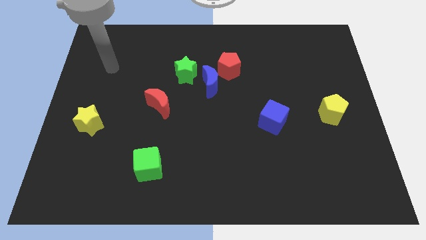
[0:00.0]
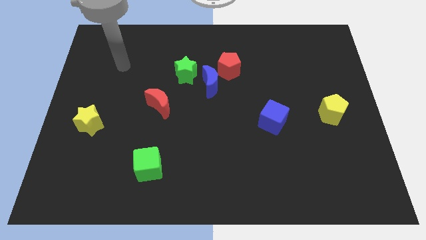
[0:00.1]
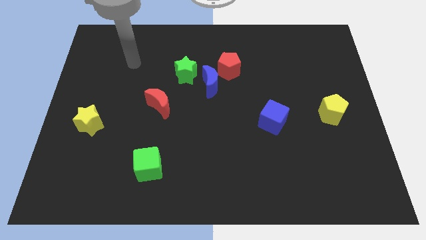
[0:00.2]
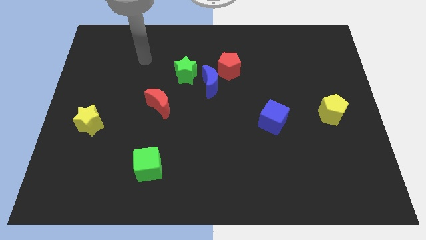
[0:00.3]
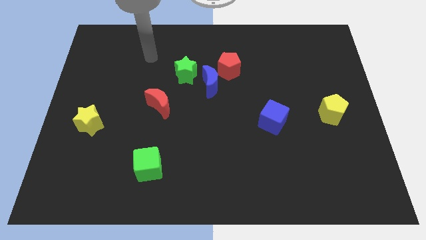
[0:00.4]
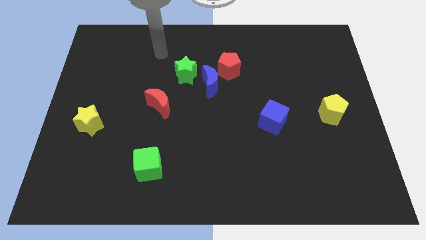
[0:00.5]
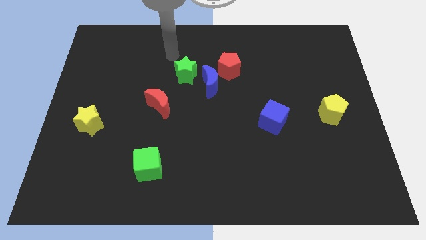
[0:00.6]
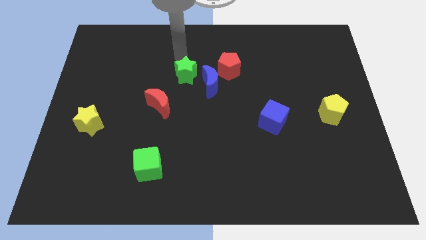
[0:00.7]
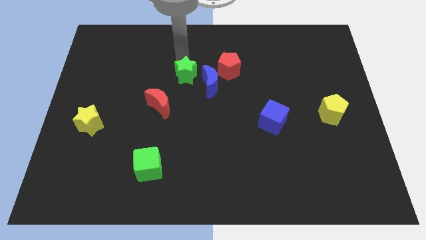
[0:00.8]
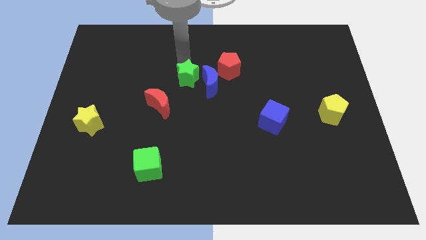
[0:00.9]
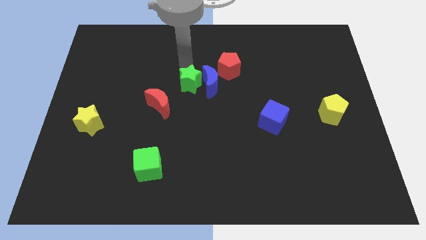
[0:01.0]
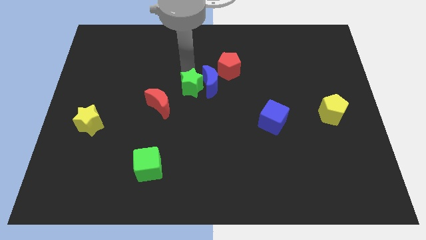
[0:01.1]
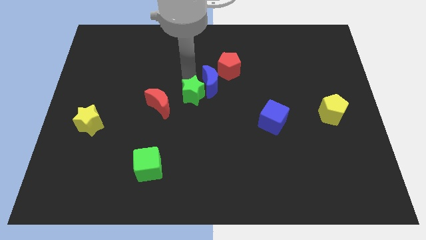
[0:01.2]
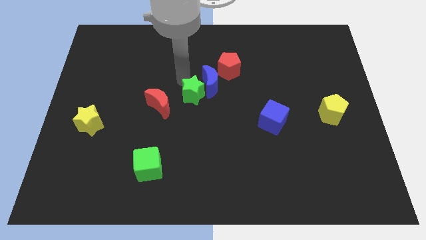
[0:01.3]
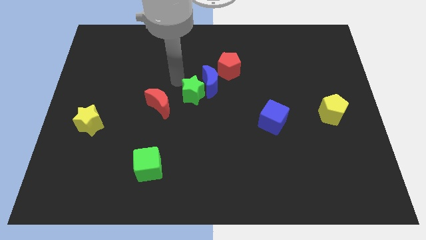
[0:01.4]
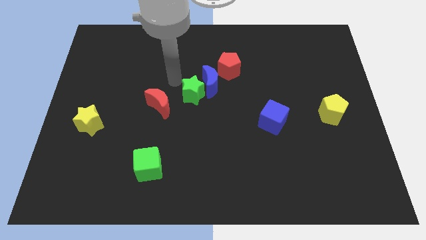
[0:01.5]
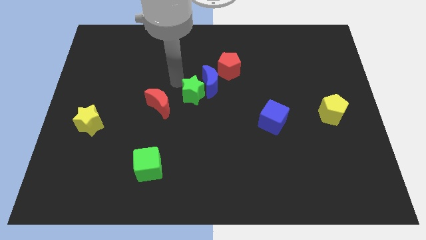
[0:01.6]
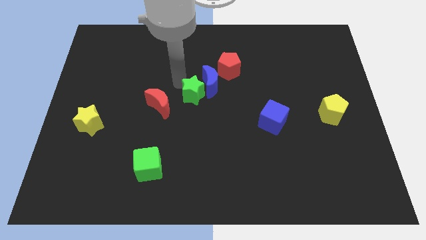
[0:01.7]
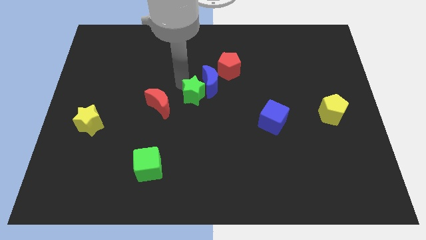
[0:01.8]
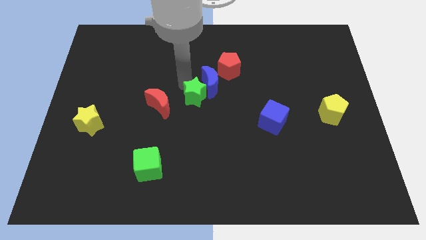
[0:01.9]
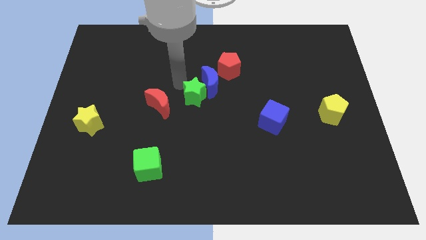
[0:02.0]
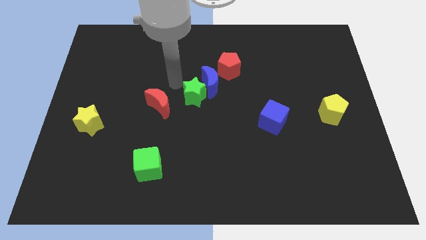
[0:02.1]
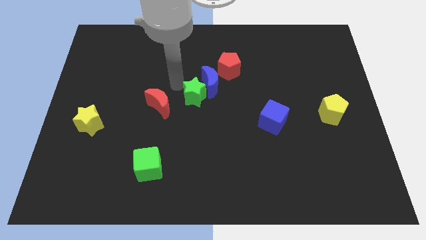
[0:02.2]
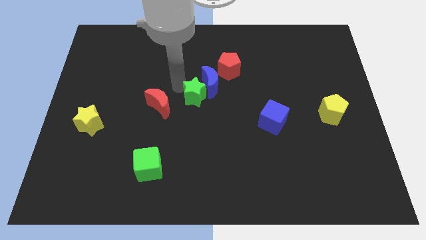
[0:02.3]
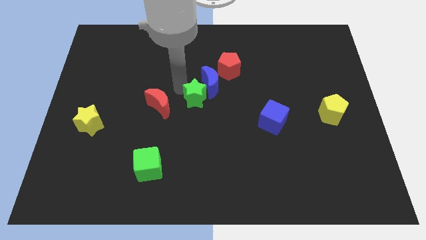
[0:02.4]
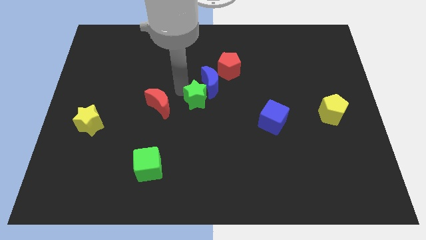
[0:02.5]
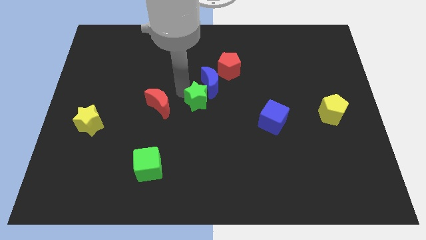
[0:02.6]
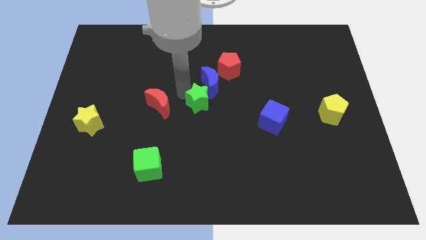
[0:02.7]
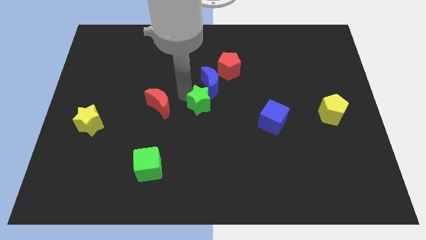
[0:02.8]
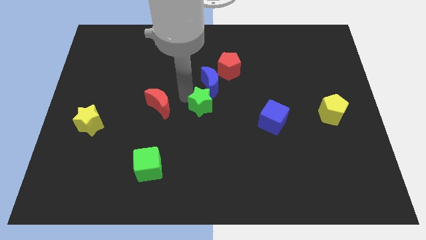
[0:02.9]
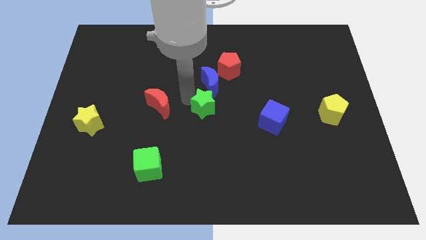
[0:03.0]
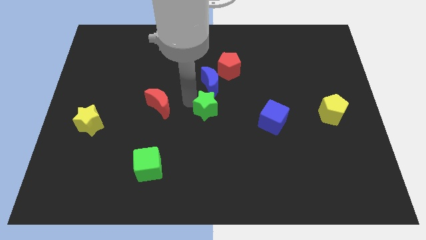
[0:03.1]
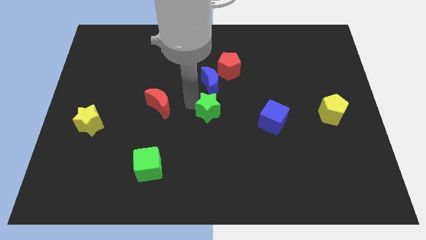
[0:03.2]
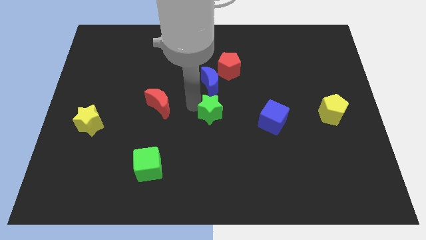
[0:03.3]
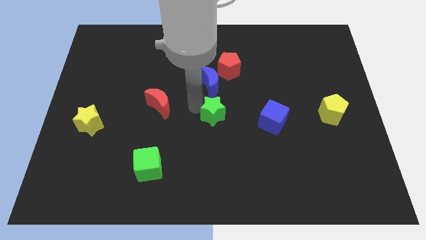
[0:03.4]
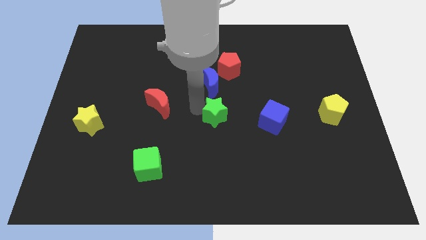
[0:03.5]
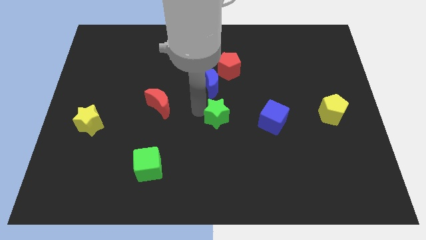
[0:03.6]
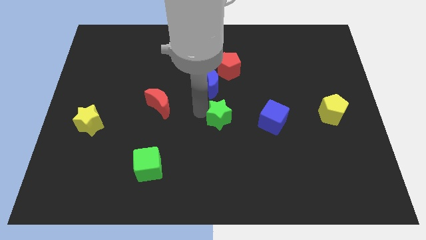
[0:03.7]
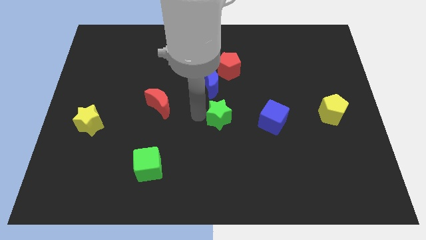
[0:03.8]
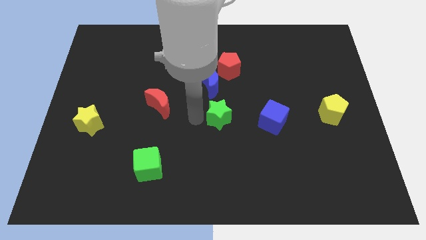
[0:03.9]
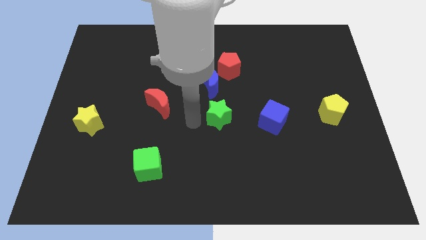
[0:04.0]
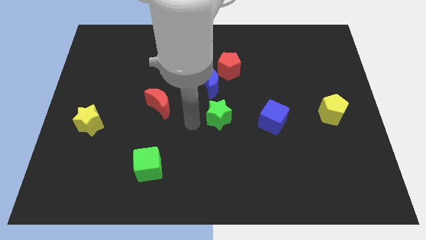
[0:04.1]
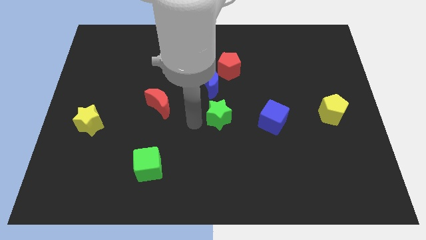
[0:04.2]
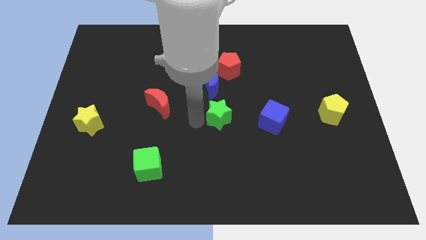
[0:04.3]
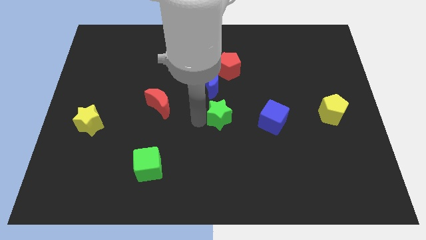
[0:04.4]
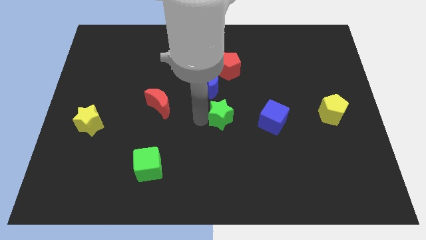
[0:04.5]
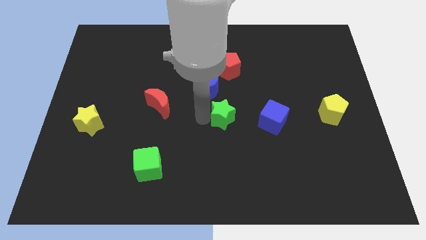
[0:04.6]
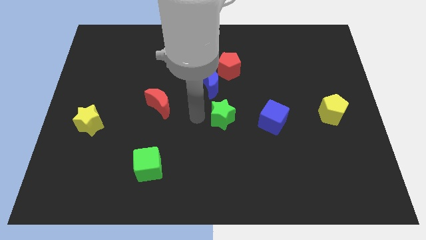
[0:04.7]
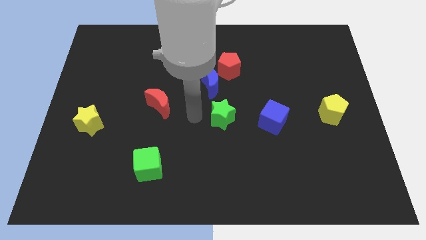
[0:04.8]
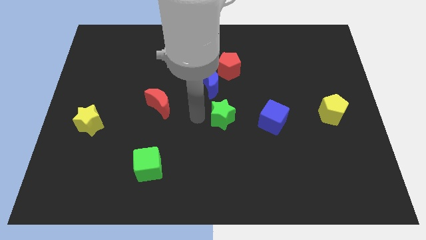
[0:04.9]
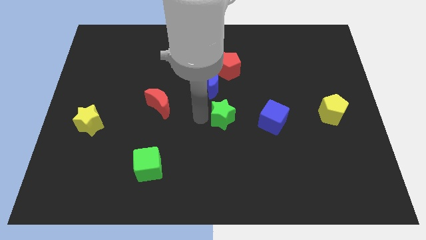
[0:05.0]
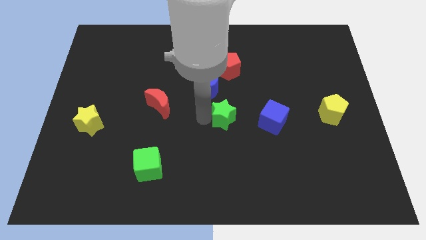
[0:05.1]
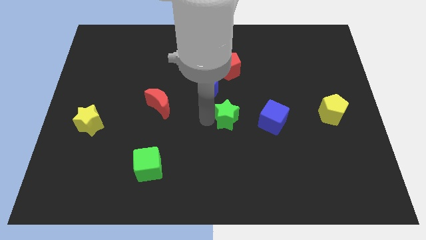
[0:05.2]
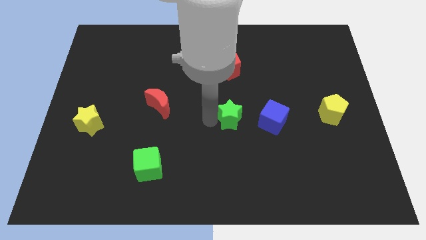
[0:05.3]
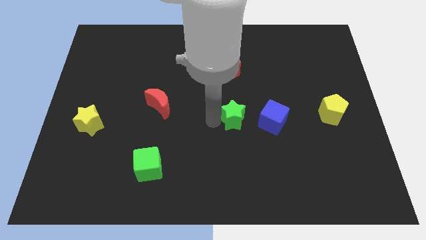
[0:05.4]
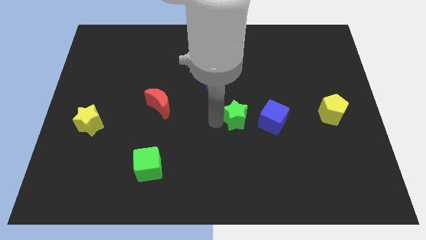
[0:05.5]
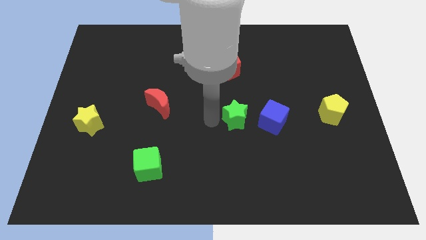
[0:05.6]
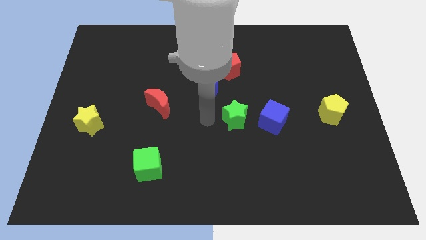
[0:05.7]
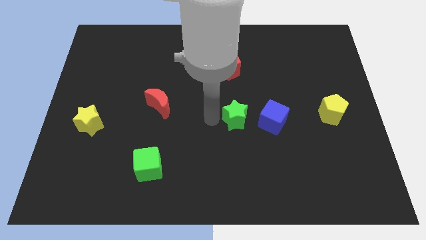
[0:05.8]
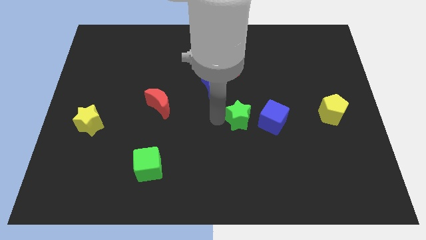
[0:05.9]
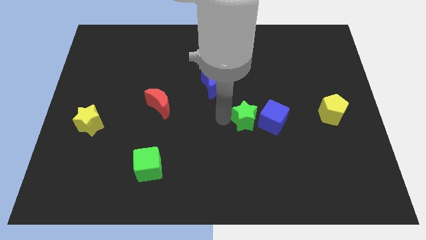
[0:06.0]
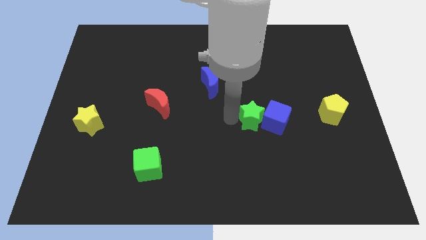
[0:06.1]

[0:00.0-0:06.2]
push the green star next to the blue cube

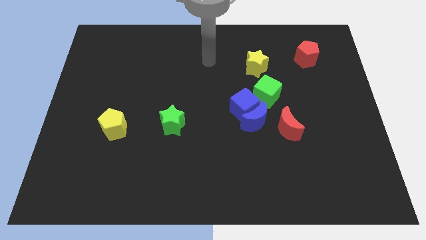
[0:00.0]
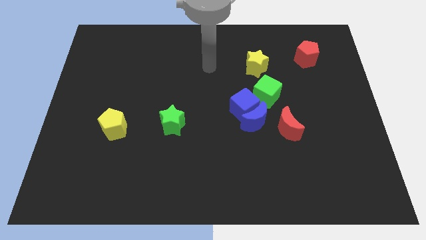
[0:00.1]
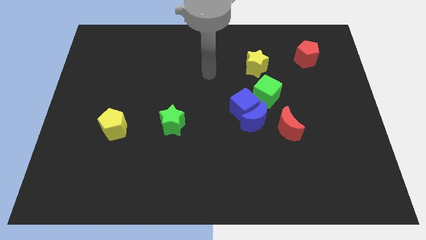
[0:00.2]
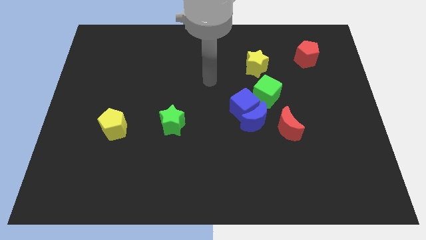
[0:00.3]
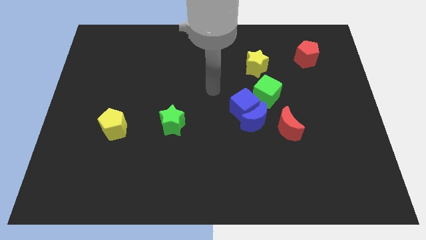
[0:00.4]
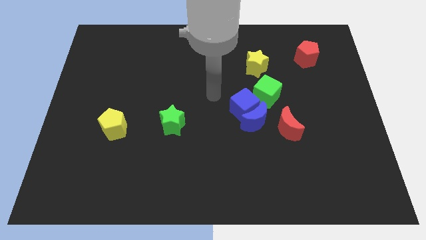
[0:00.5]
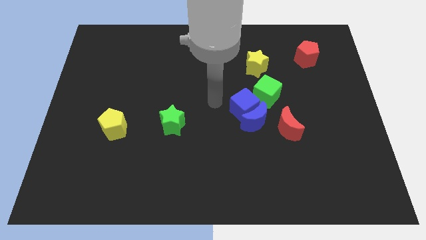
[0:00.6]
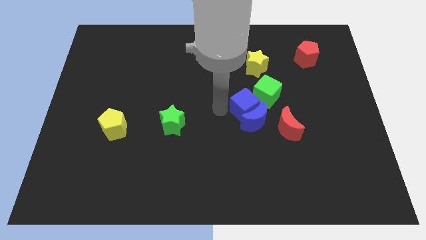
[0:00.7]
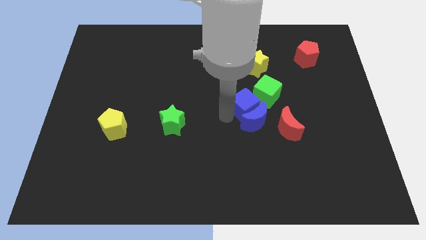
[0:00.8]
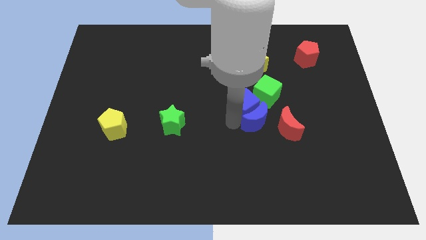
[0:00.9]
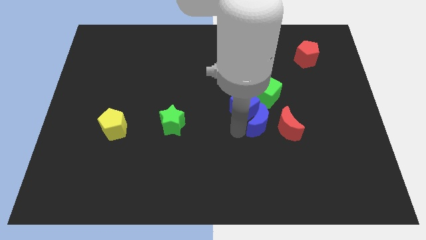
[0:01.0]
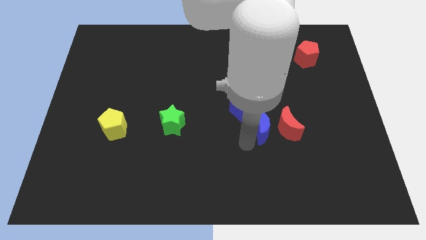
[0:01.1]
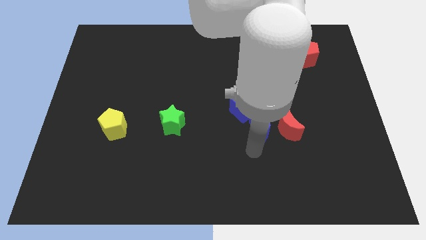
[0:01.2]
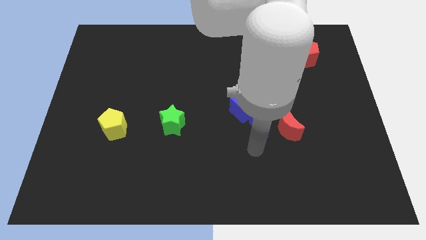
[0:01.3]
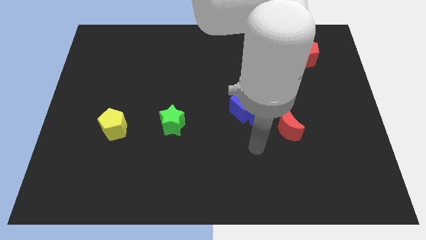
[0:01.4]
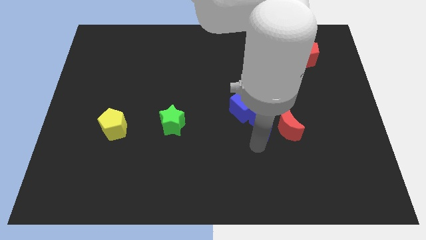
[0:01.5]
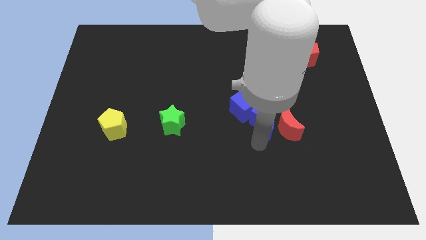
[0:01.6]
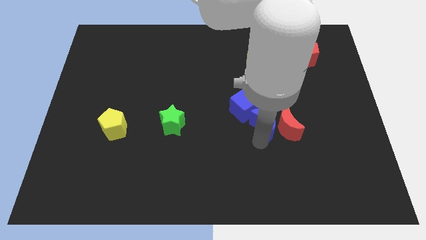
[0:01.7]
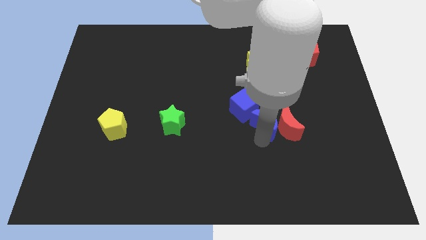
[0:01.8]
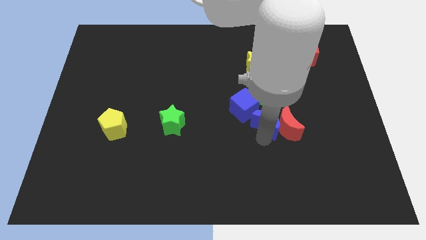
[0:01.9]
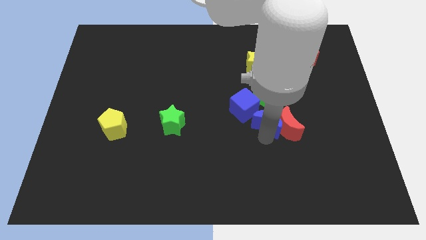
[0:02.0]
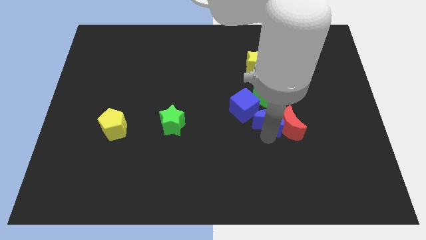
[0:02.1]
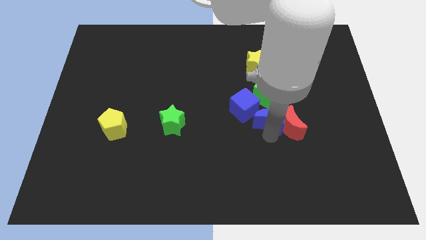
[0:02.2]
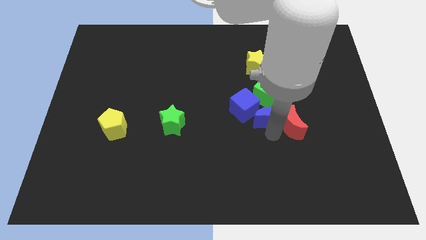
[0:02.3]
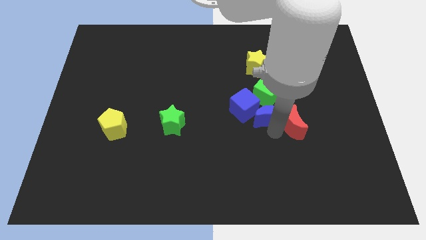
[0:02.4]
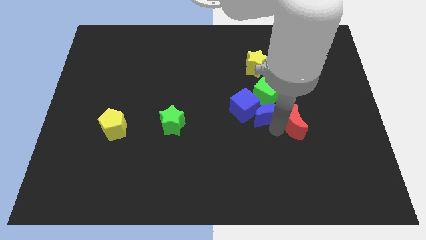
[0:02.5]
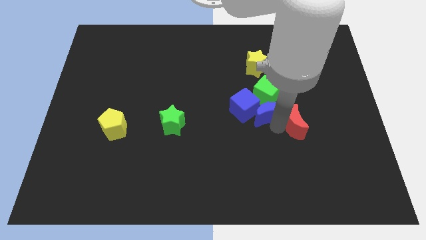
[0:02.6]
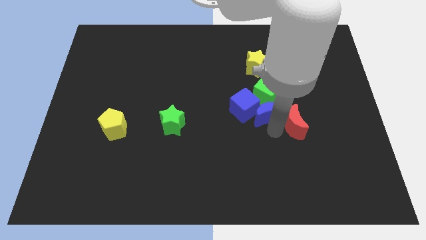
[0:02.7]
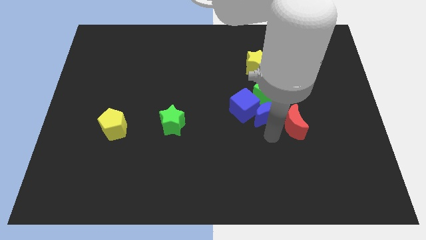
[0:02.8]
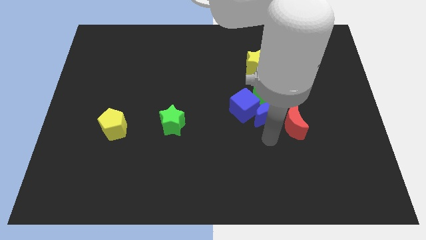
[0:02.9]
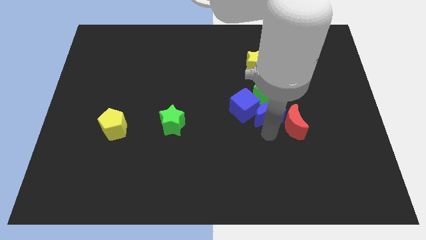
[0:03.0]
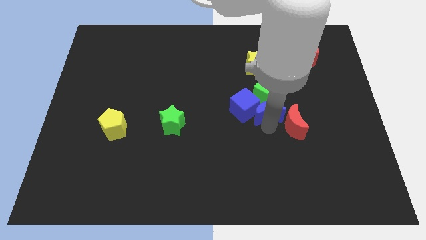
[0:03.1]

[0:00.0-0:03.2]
put the blue moon to the green cube
